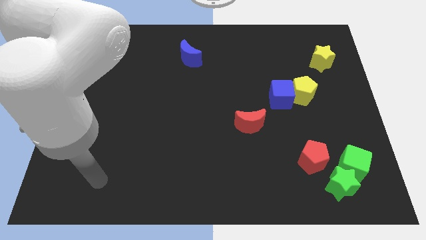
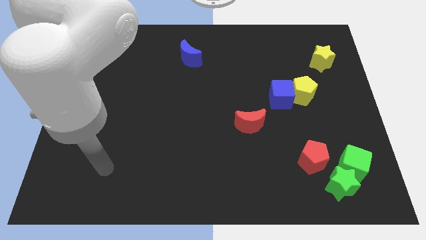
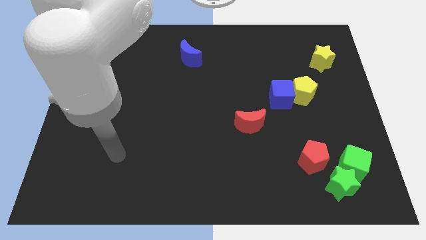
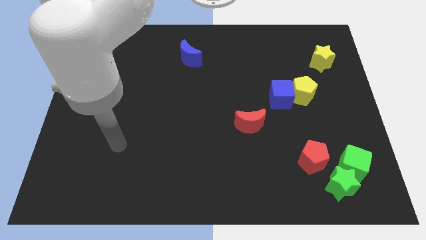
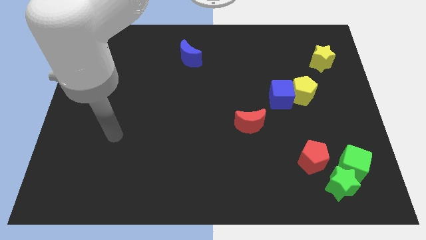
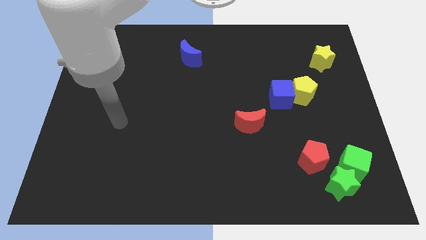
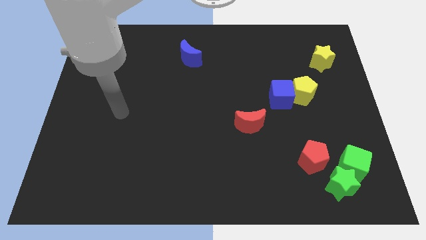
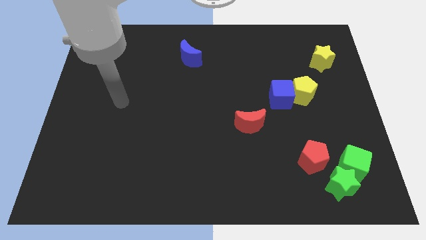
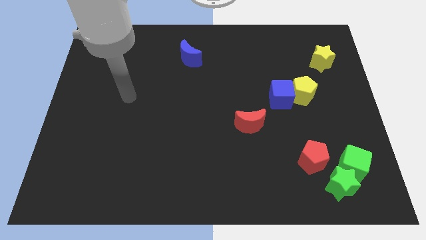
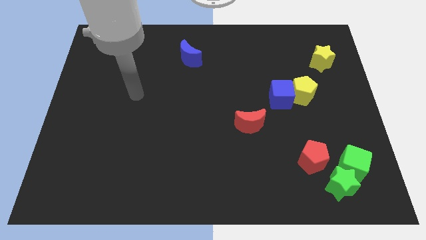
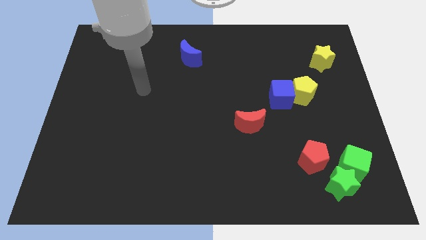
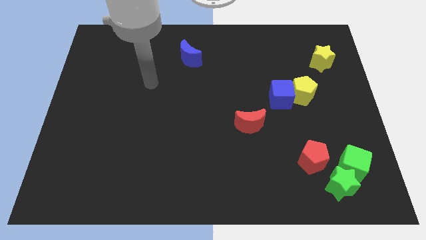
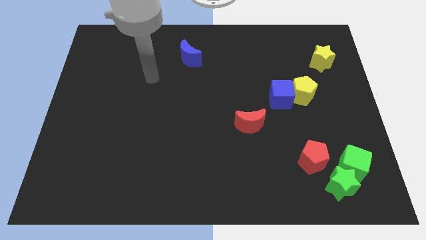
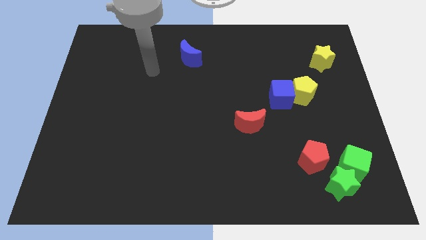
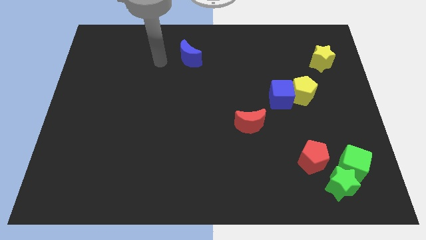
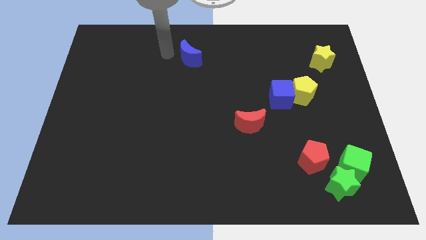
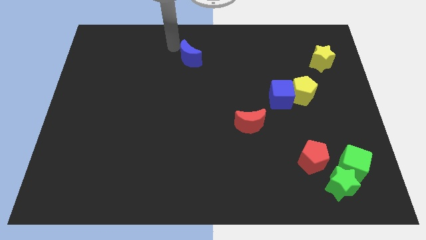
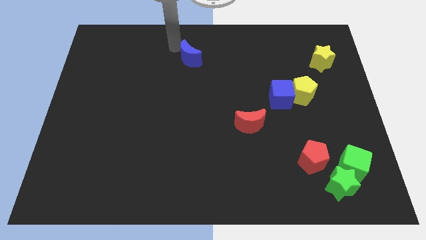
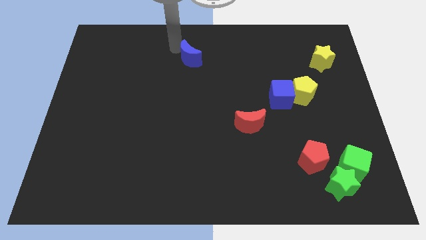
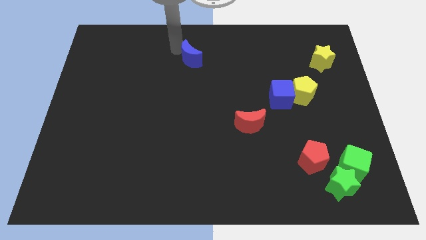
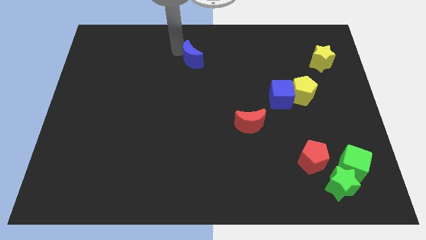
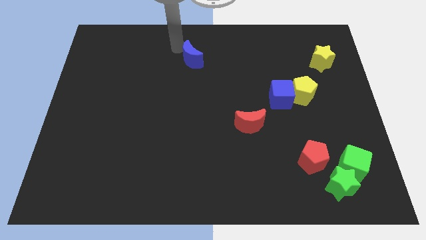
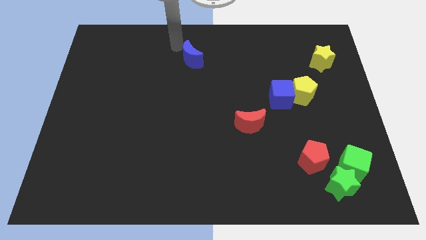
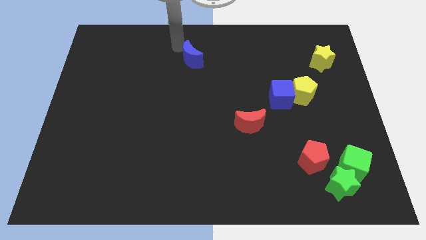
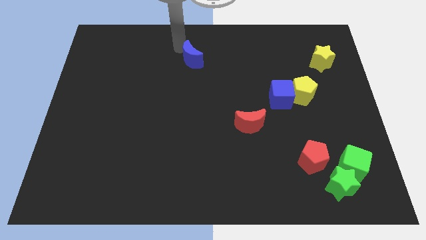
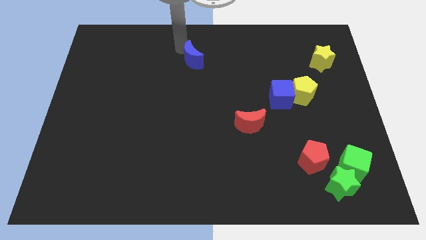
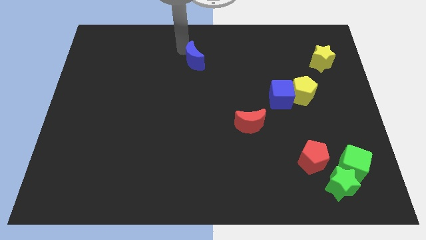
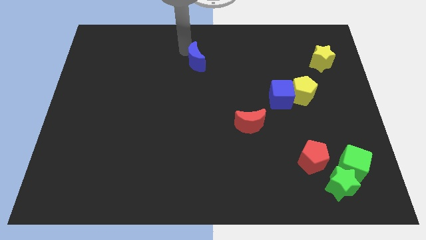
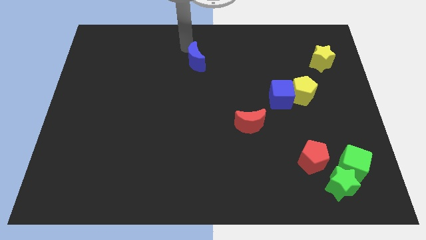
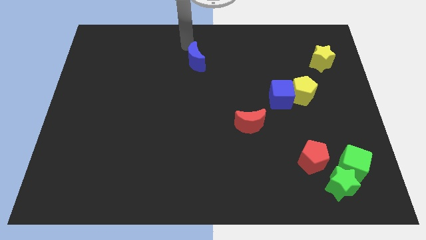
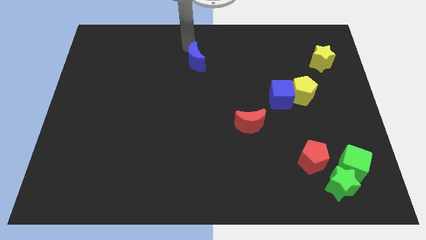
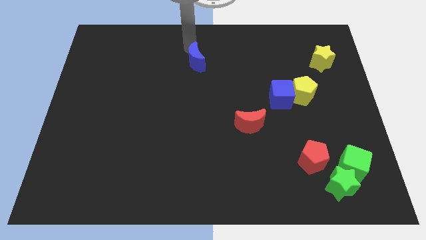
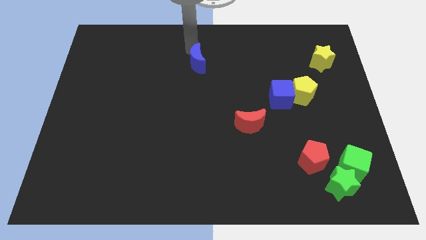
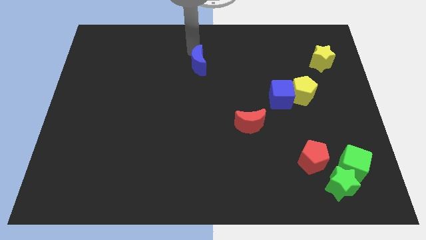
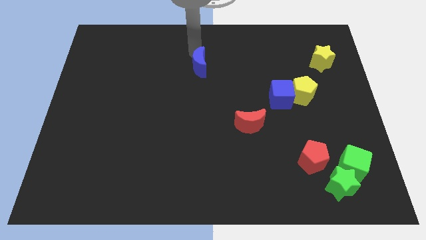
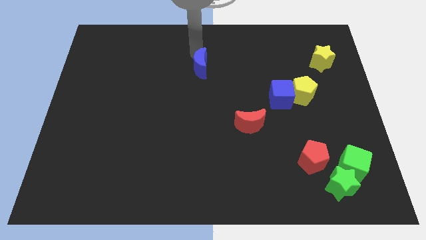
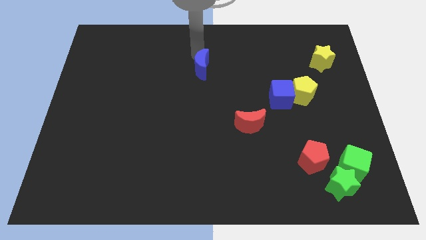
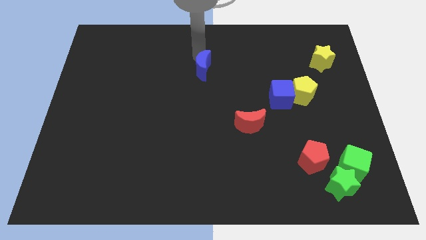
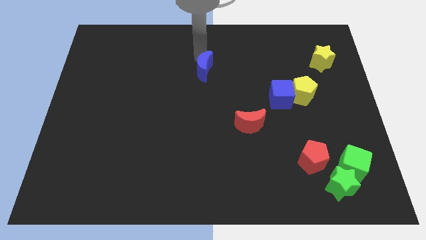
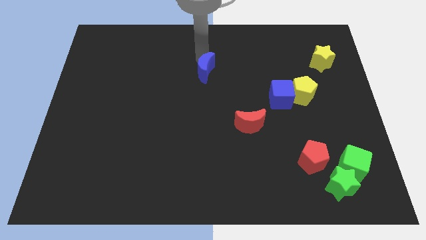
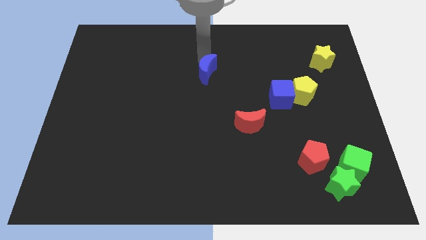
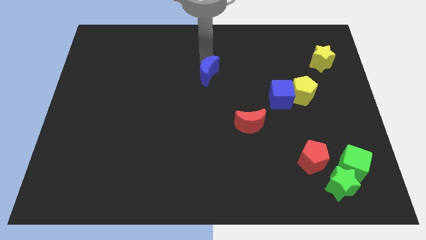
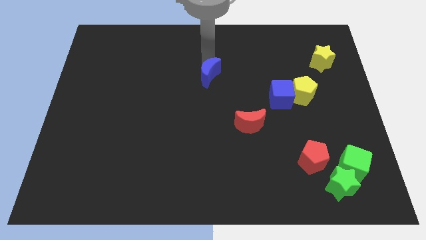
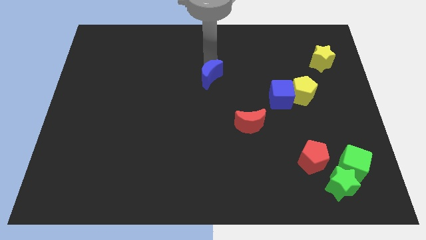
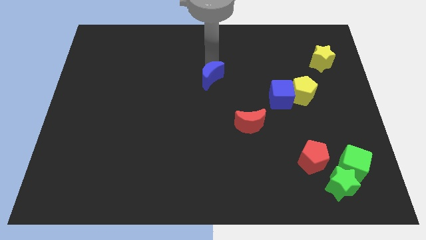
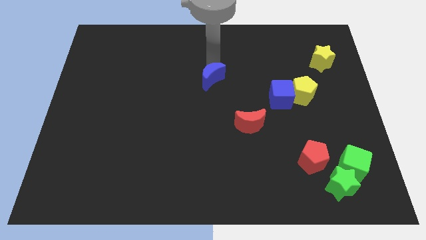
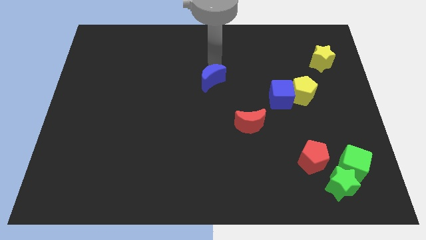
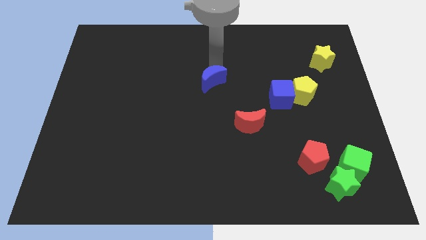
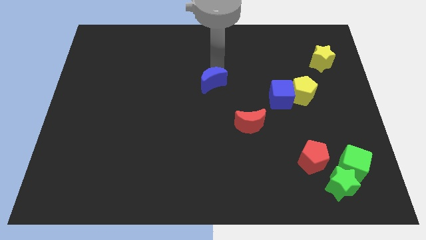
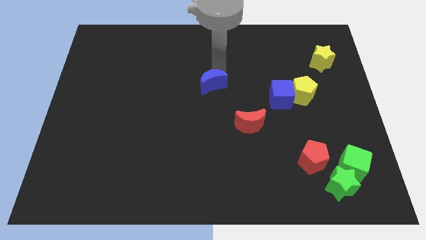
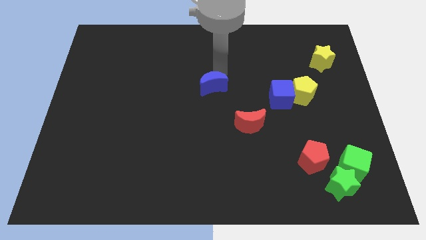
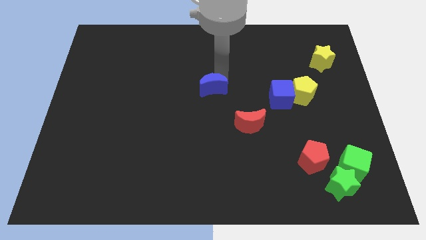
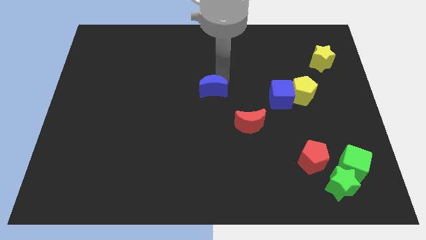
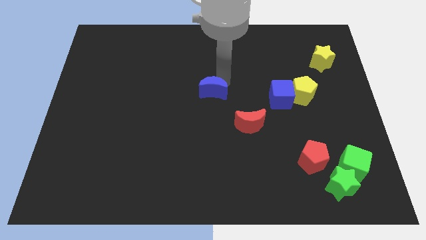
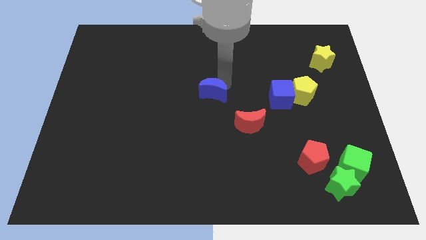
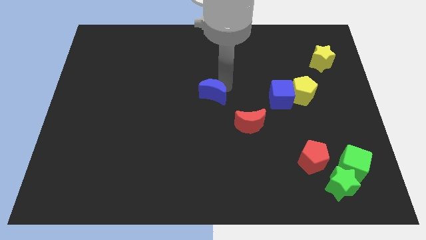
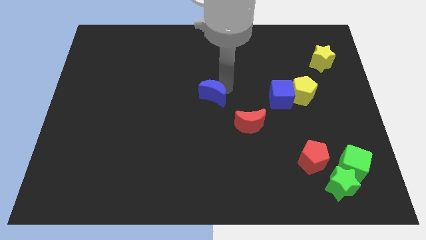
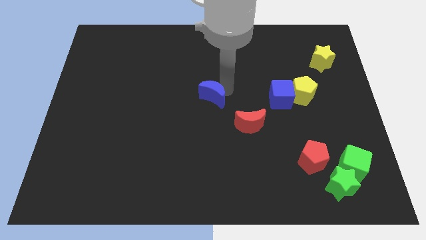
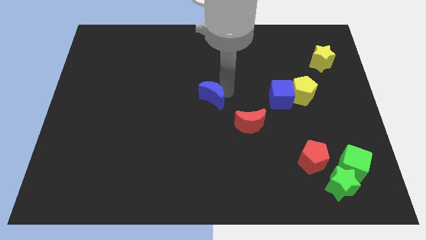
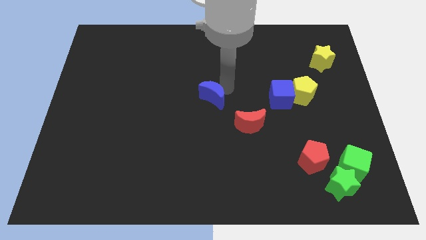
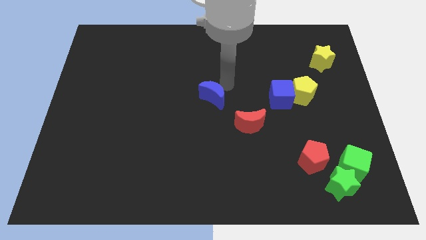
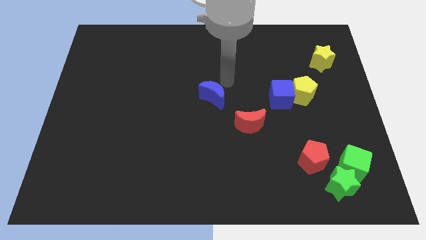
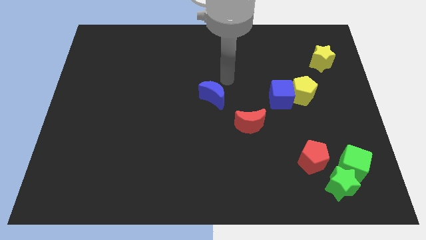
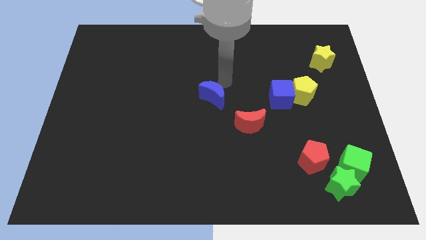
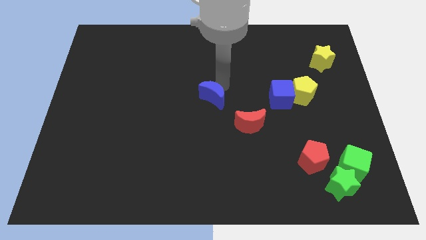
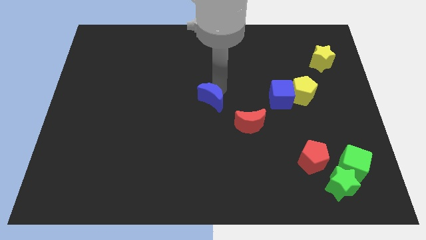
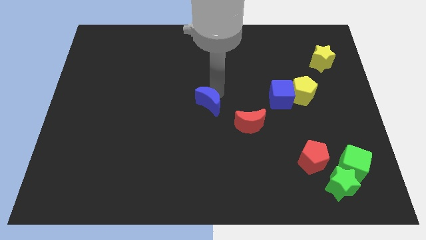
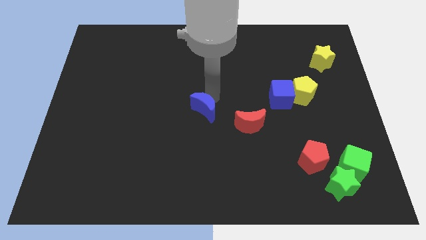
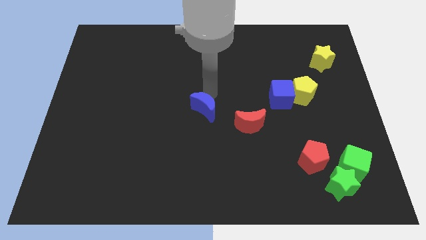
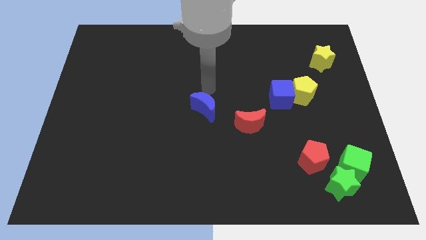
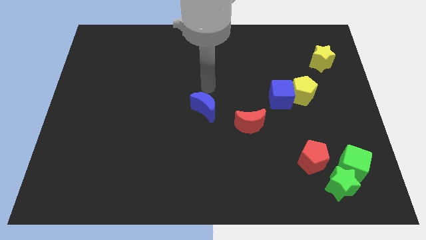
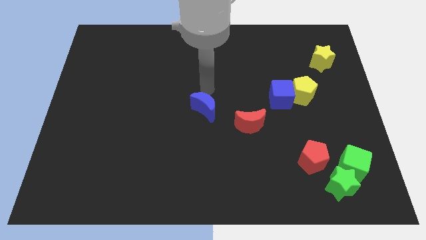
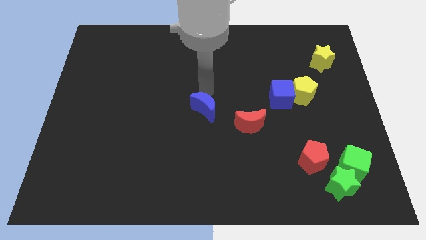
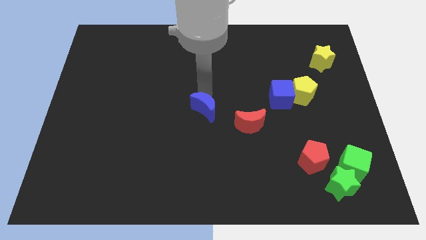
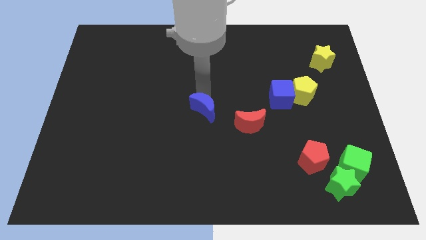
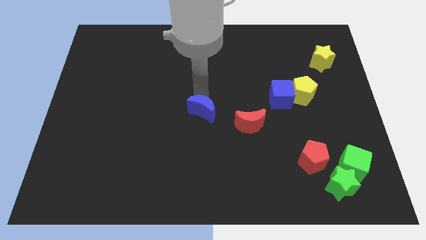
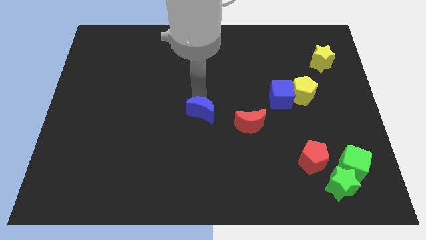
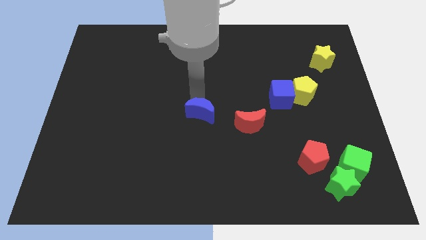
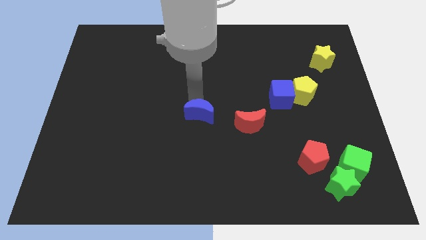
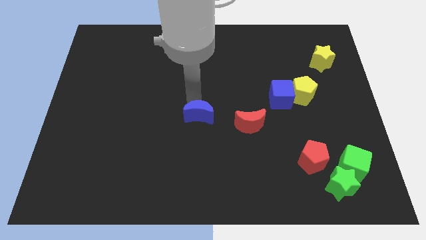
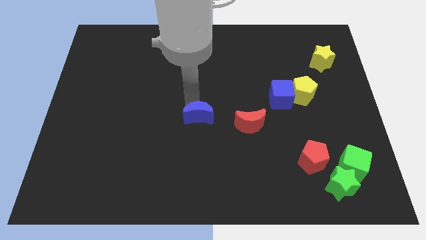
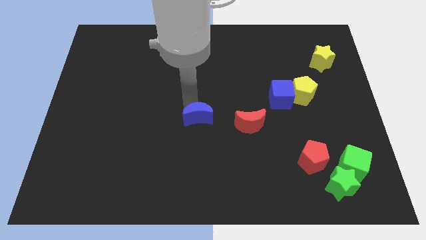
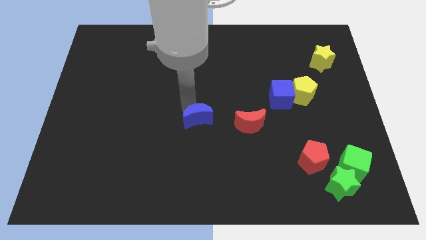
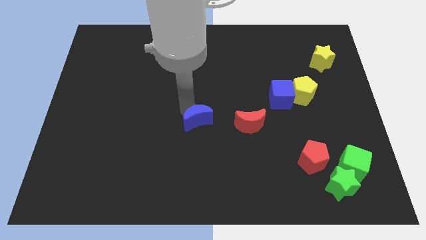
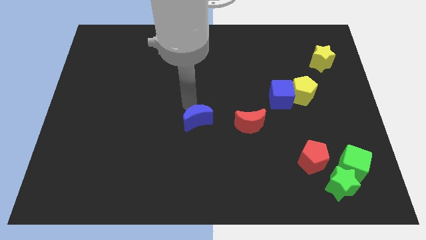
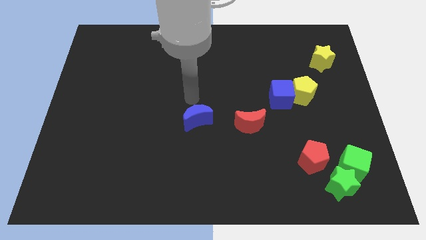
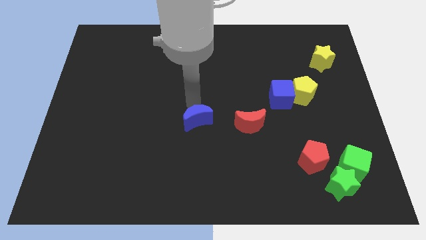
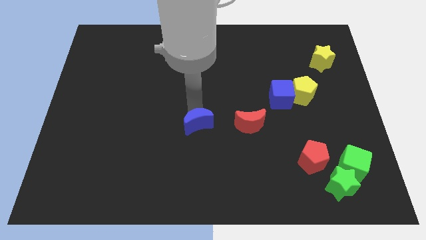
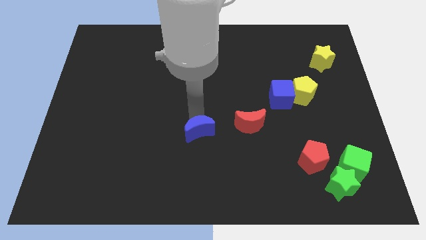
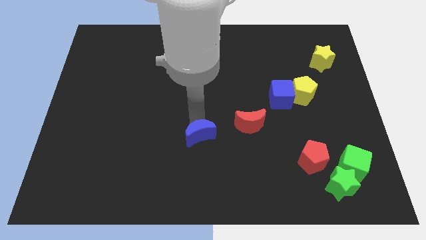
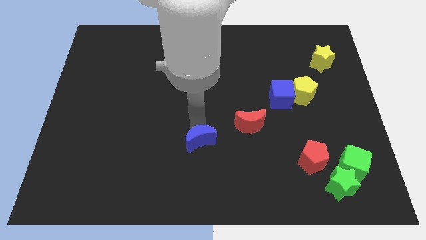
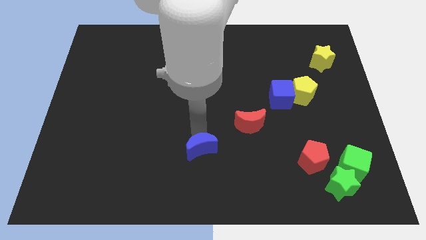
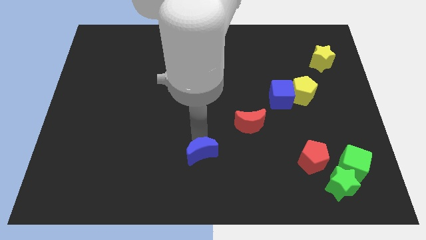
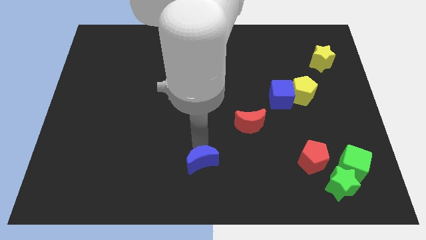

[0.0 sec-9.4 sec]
put the blue moon to the bottom side
